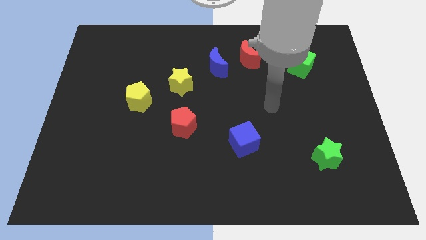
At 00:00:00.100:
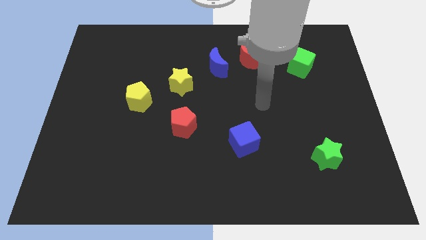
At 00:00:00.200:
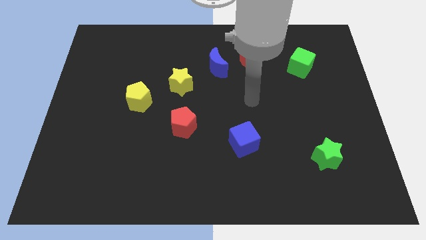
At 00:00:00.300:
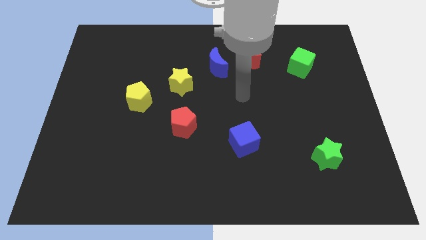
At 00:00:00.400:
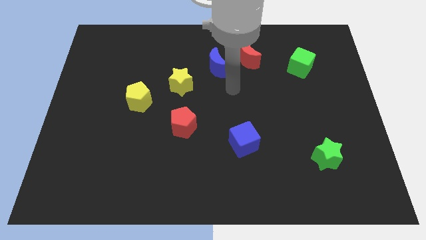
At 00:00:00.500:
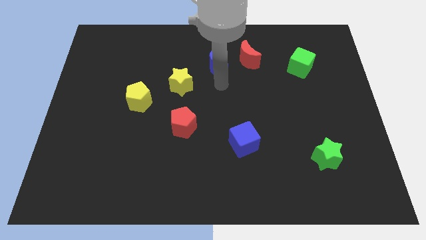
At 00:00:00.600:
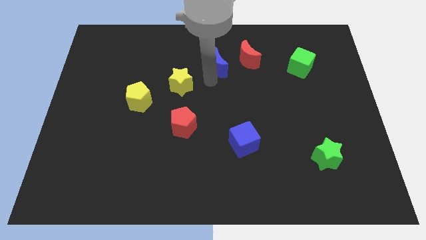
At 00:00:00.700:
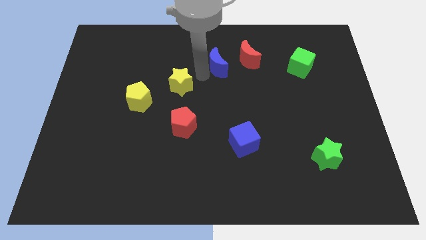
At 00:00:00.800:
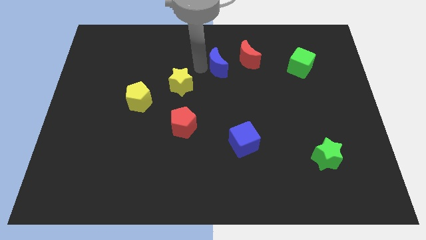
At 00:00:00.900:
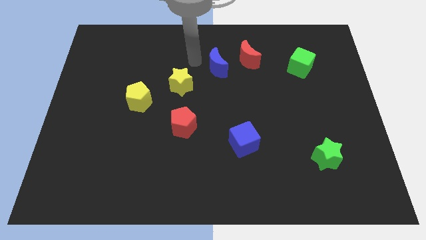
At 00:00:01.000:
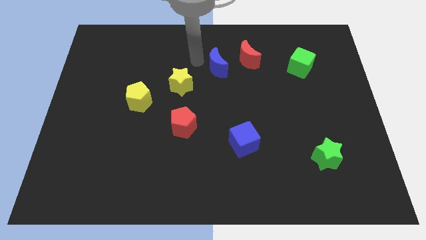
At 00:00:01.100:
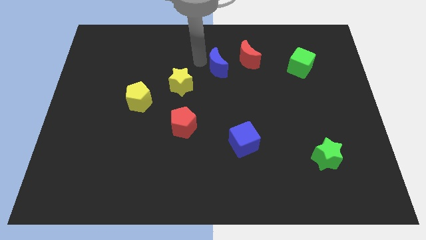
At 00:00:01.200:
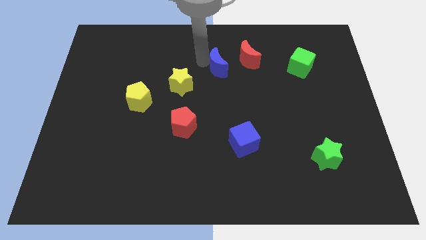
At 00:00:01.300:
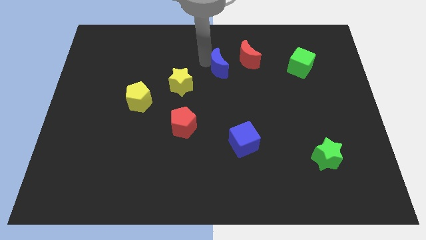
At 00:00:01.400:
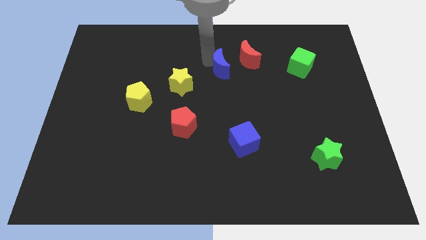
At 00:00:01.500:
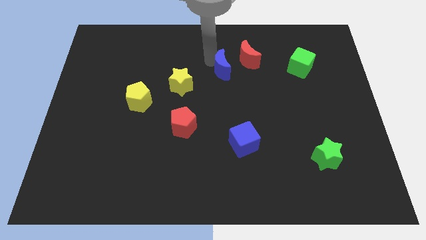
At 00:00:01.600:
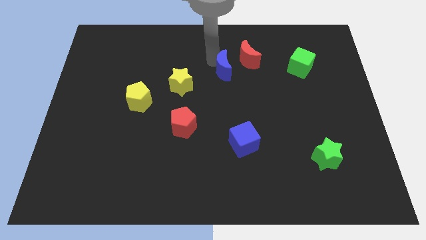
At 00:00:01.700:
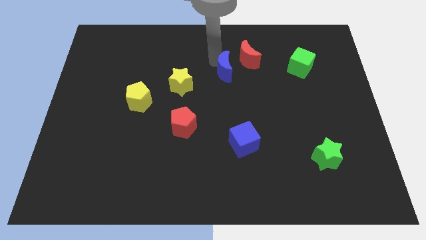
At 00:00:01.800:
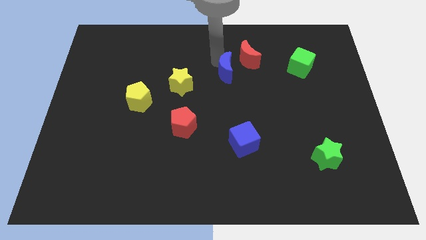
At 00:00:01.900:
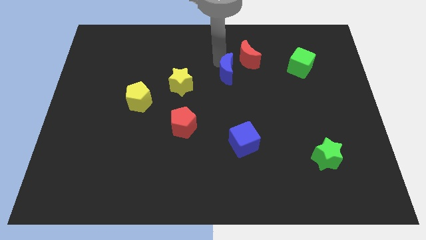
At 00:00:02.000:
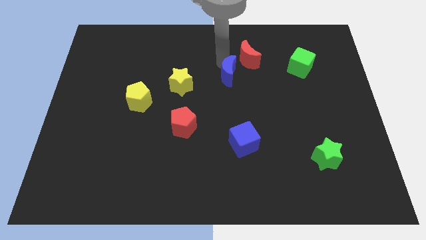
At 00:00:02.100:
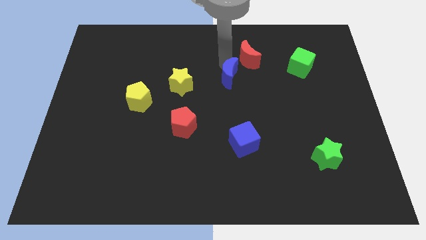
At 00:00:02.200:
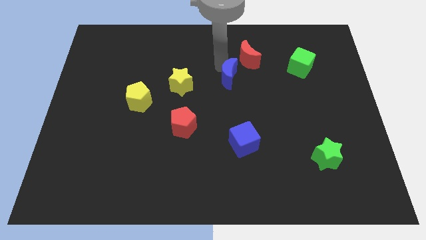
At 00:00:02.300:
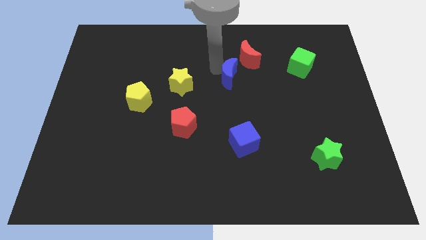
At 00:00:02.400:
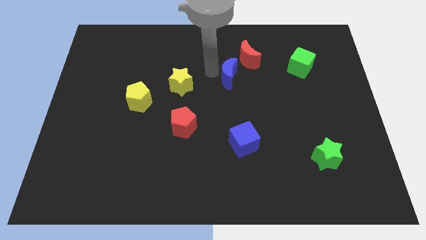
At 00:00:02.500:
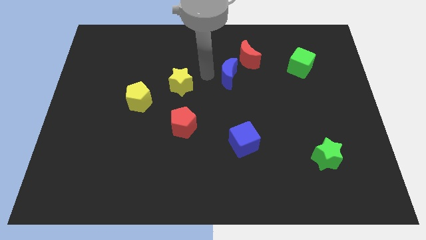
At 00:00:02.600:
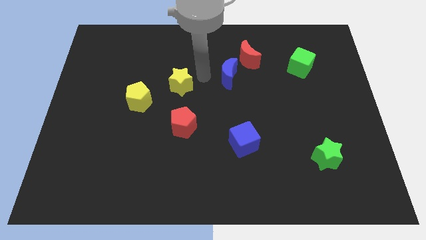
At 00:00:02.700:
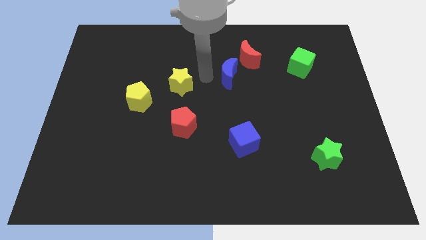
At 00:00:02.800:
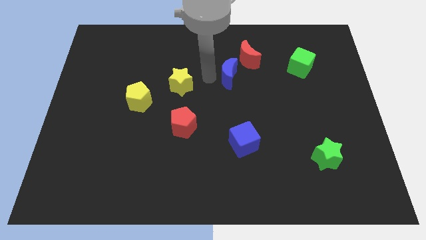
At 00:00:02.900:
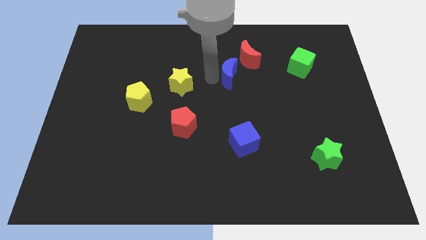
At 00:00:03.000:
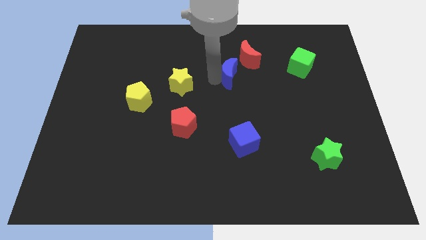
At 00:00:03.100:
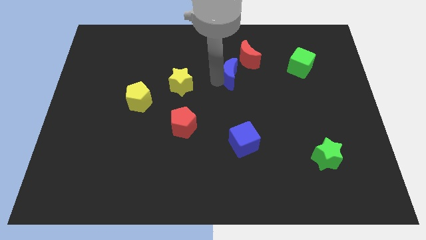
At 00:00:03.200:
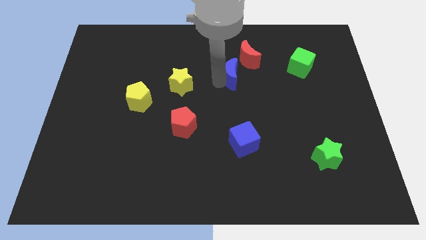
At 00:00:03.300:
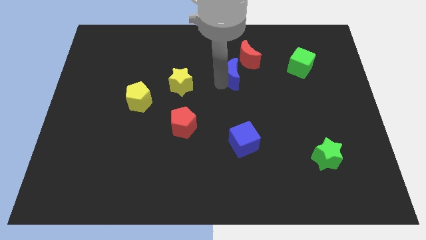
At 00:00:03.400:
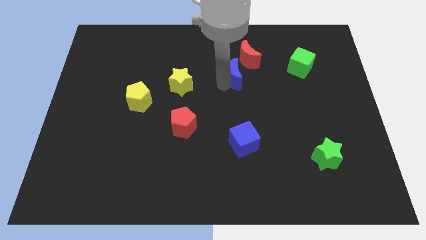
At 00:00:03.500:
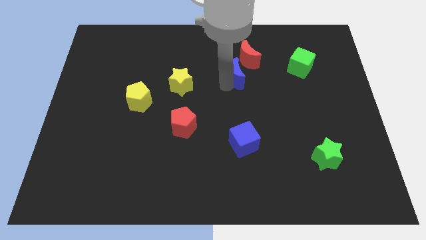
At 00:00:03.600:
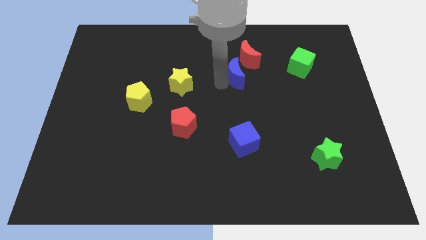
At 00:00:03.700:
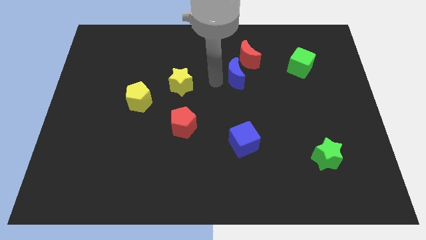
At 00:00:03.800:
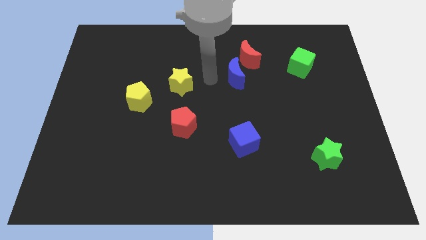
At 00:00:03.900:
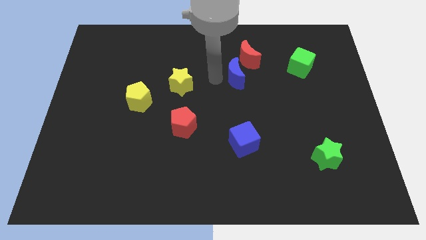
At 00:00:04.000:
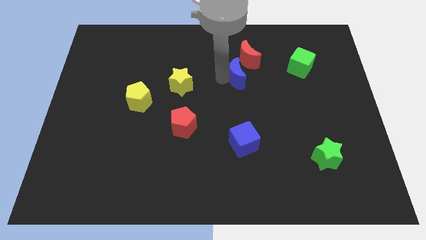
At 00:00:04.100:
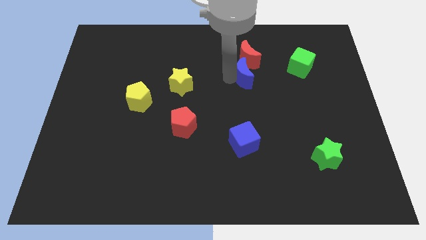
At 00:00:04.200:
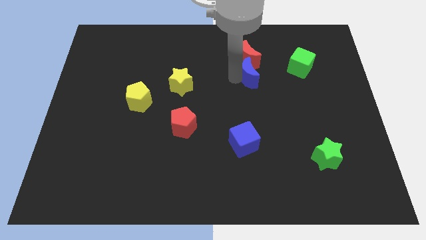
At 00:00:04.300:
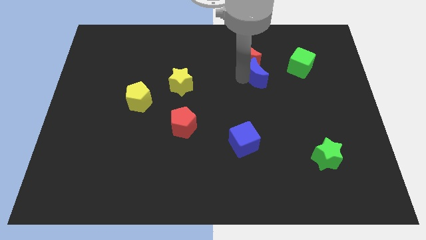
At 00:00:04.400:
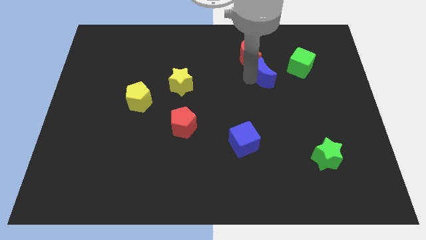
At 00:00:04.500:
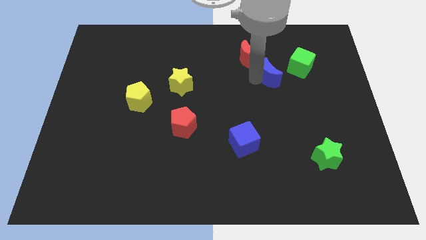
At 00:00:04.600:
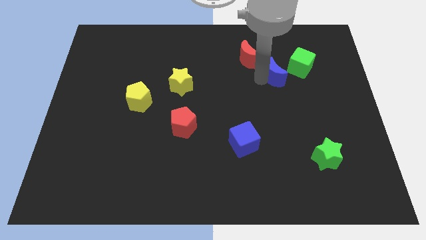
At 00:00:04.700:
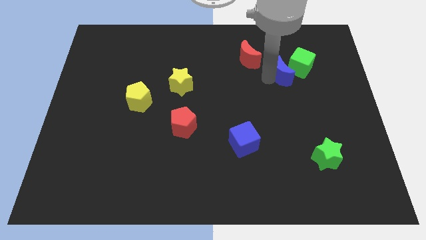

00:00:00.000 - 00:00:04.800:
push the blue moon to the green cube

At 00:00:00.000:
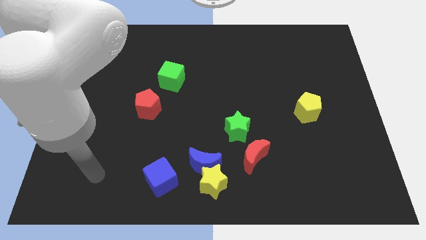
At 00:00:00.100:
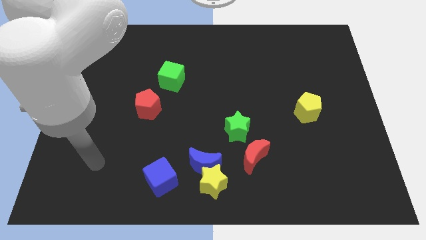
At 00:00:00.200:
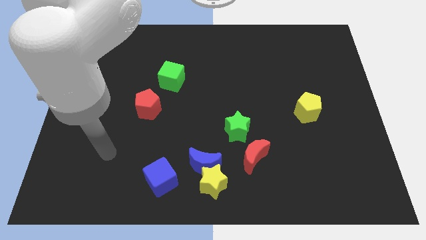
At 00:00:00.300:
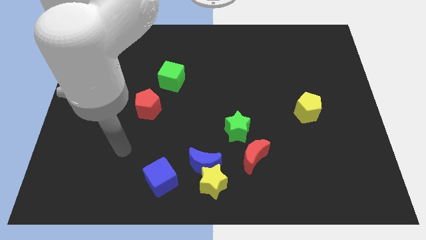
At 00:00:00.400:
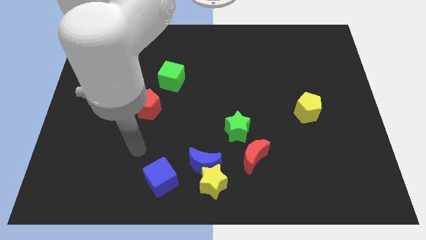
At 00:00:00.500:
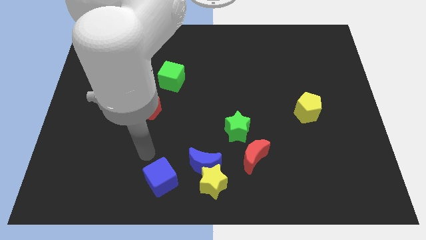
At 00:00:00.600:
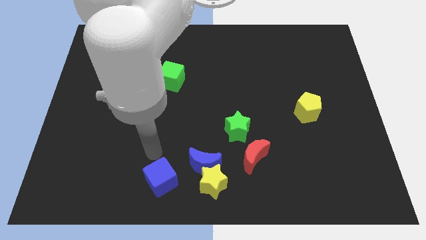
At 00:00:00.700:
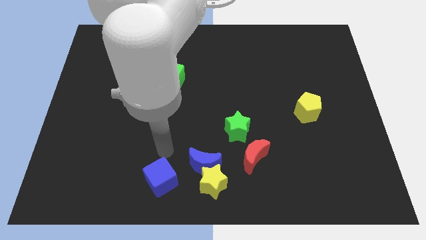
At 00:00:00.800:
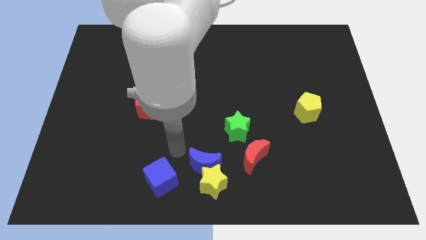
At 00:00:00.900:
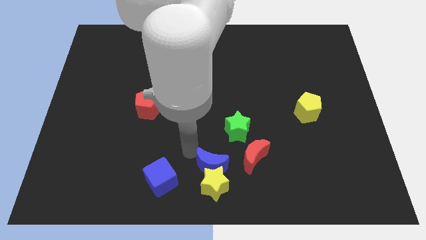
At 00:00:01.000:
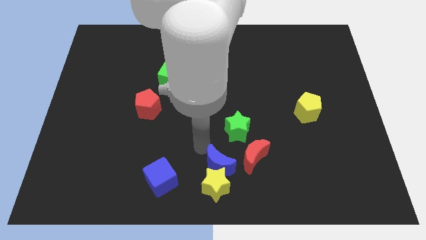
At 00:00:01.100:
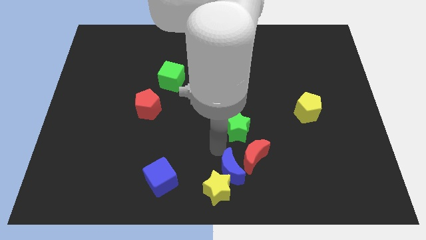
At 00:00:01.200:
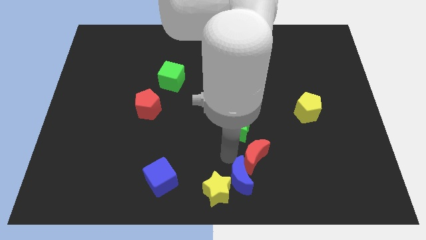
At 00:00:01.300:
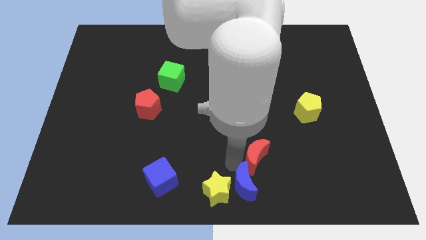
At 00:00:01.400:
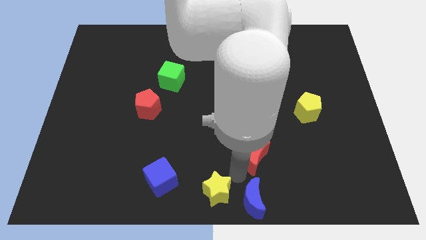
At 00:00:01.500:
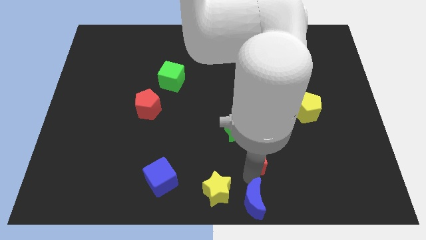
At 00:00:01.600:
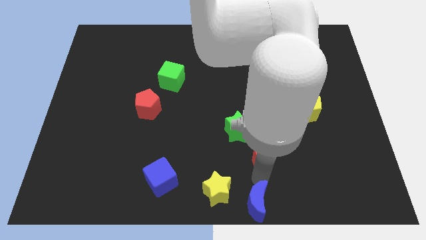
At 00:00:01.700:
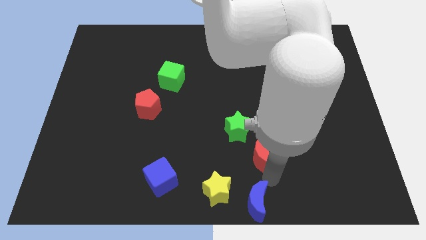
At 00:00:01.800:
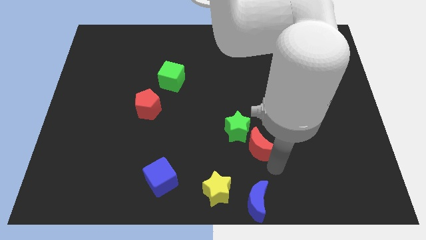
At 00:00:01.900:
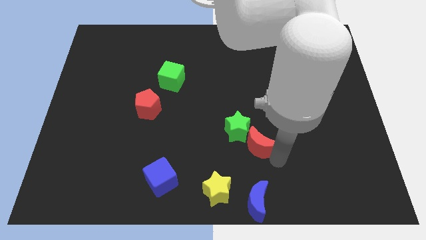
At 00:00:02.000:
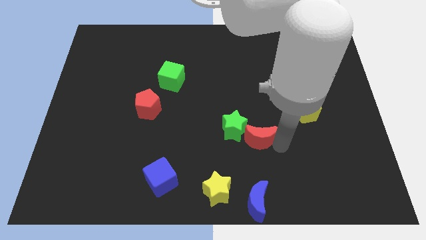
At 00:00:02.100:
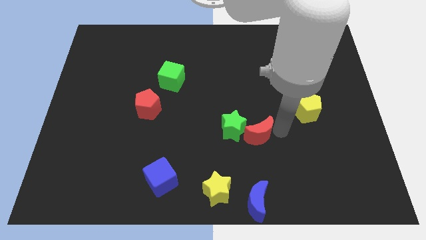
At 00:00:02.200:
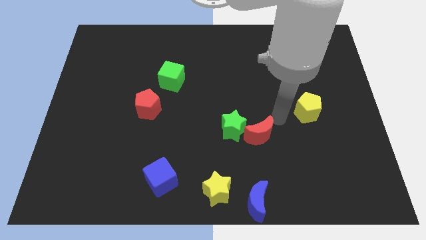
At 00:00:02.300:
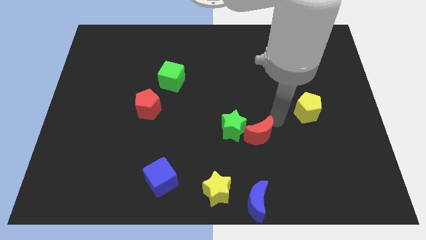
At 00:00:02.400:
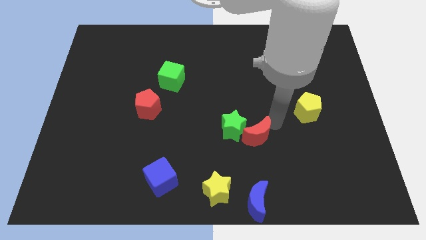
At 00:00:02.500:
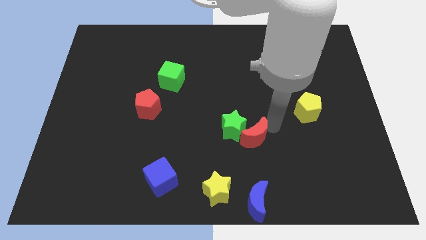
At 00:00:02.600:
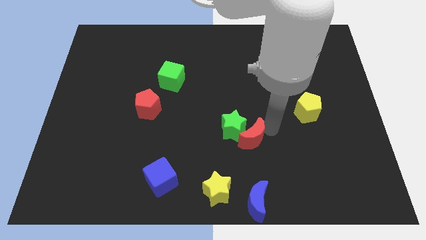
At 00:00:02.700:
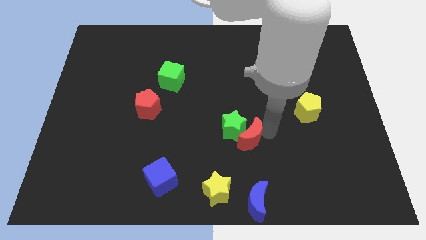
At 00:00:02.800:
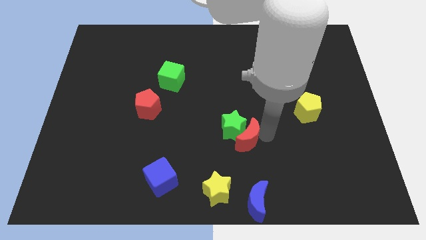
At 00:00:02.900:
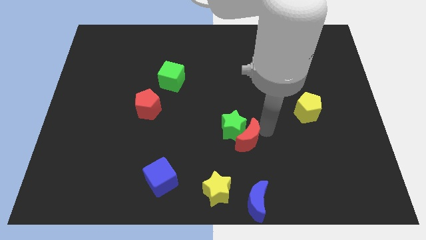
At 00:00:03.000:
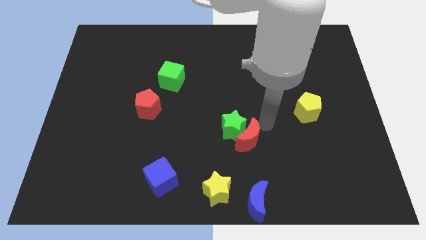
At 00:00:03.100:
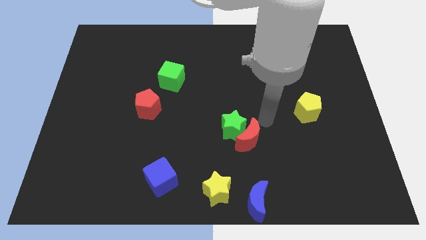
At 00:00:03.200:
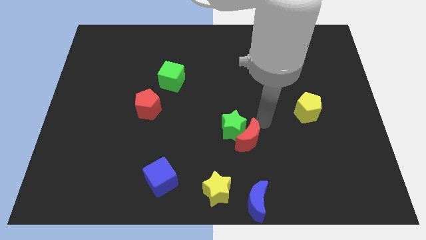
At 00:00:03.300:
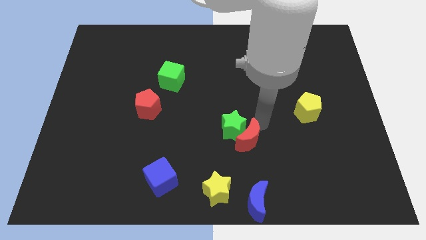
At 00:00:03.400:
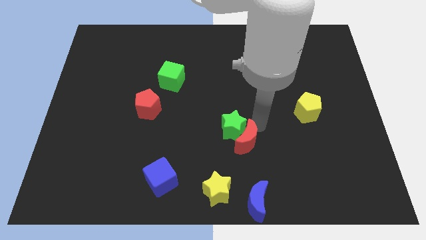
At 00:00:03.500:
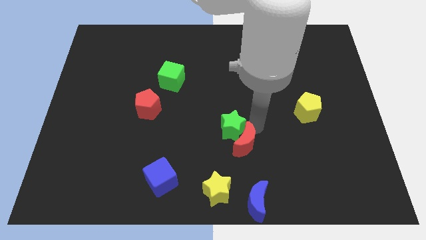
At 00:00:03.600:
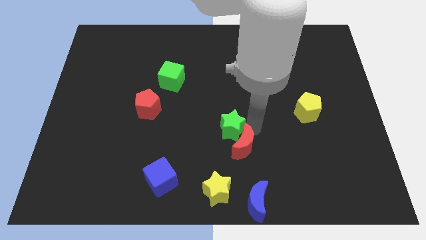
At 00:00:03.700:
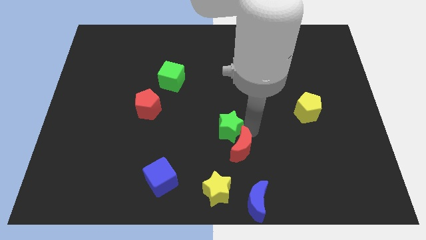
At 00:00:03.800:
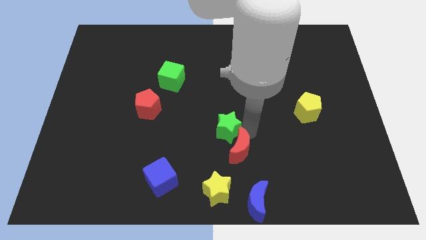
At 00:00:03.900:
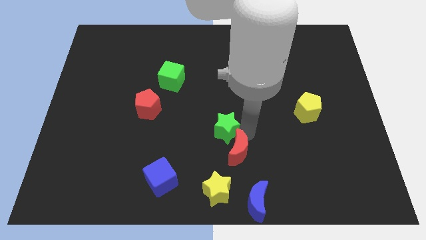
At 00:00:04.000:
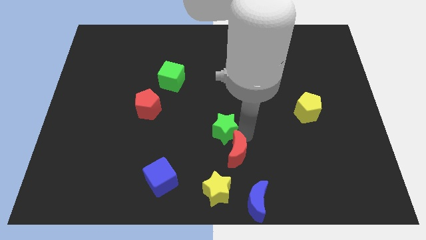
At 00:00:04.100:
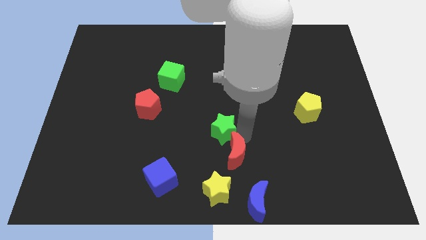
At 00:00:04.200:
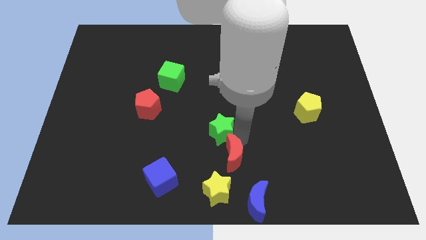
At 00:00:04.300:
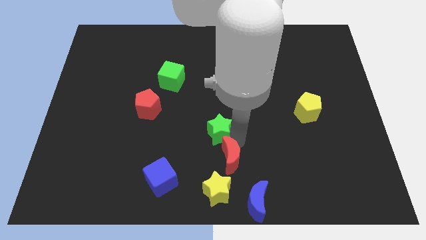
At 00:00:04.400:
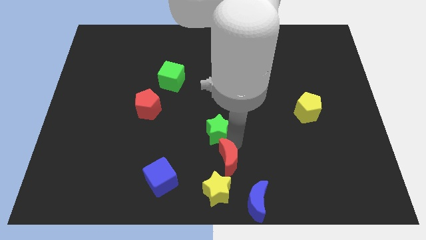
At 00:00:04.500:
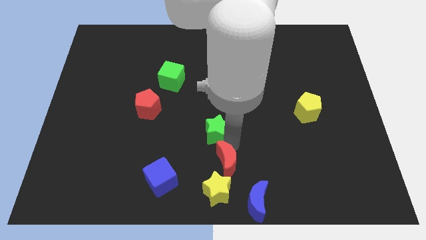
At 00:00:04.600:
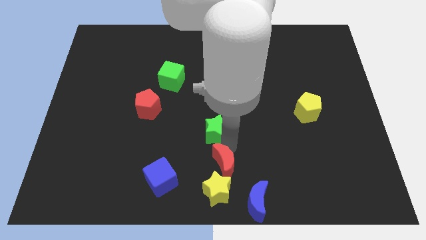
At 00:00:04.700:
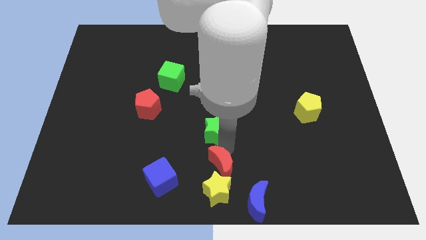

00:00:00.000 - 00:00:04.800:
put the red moon towards the yellow star
